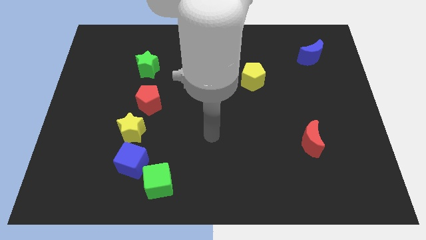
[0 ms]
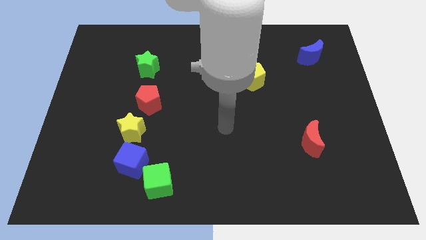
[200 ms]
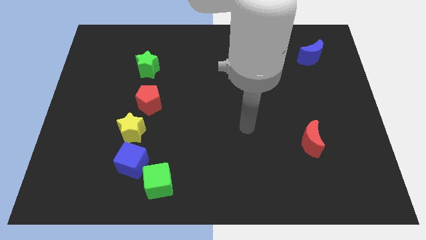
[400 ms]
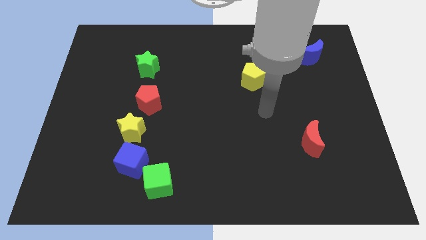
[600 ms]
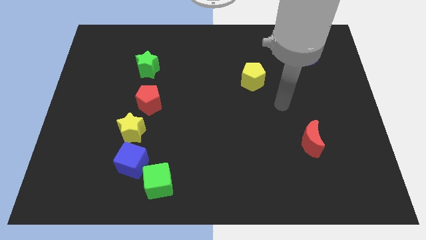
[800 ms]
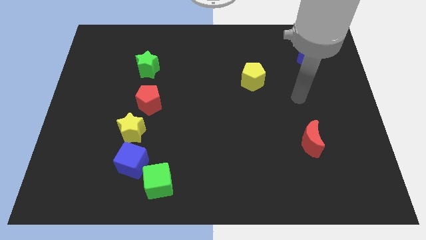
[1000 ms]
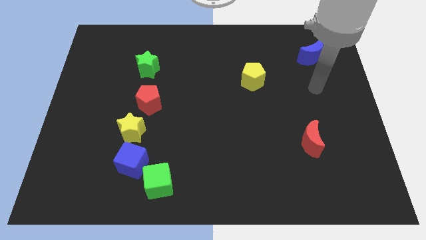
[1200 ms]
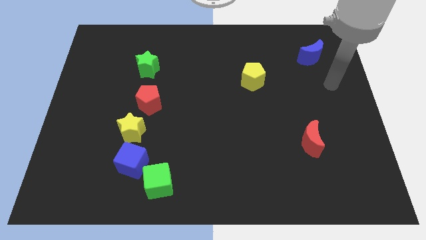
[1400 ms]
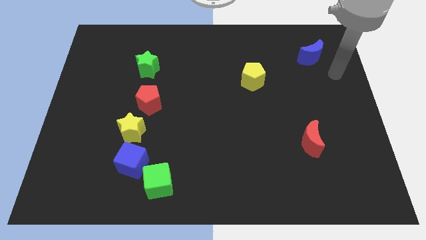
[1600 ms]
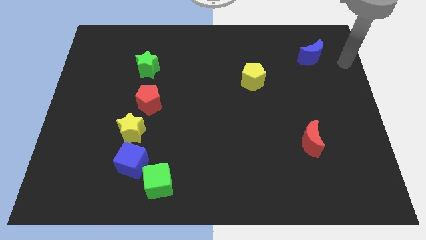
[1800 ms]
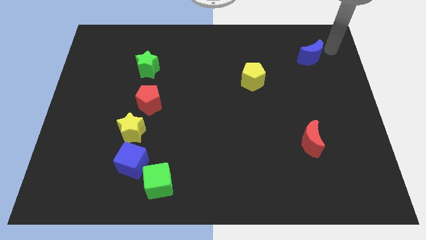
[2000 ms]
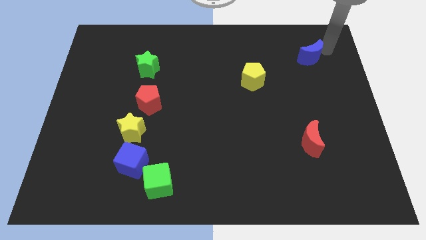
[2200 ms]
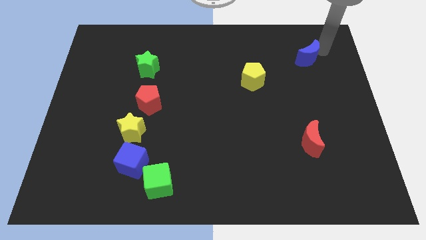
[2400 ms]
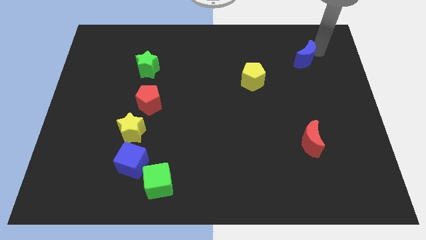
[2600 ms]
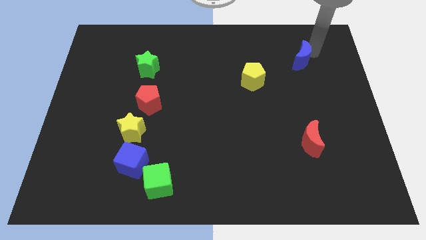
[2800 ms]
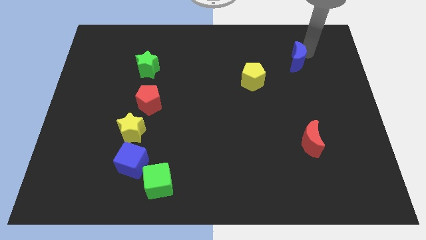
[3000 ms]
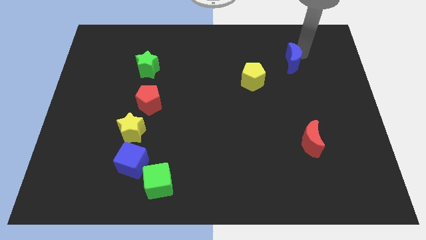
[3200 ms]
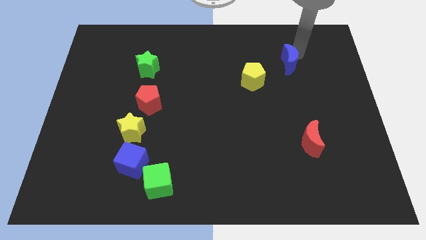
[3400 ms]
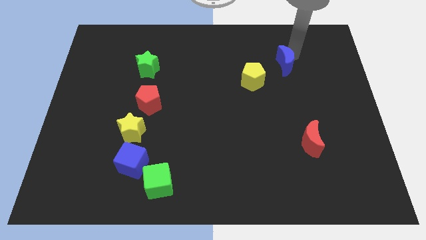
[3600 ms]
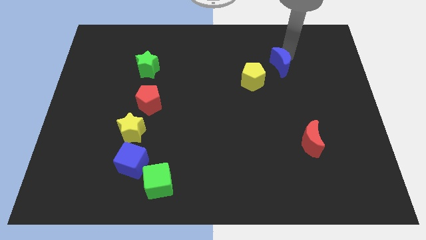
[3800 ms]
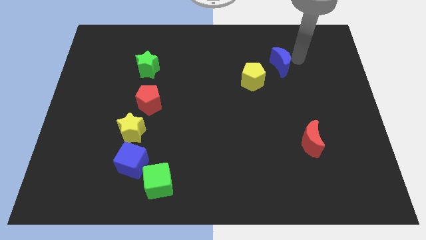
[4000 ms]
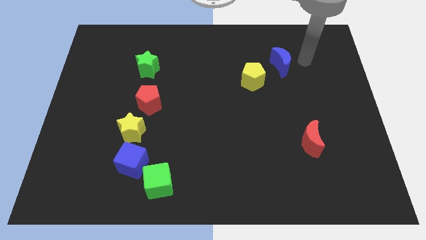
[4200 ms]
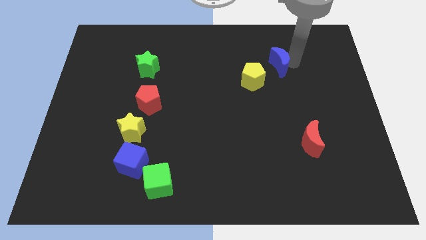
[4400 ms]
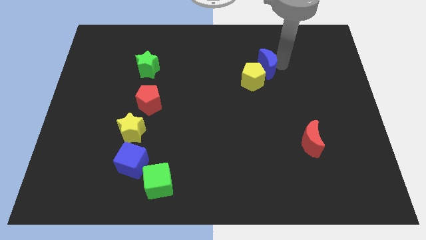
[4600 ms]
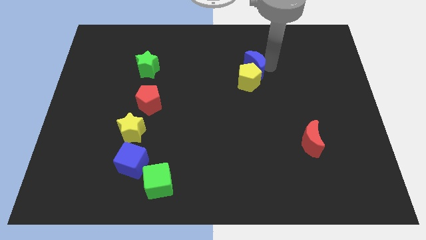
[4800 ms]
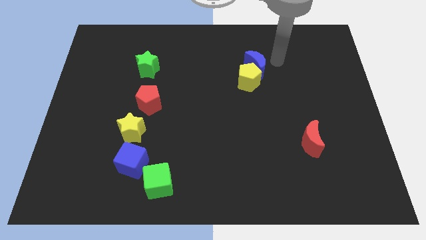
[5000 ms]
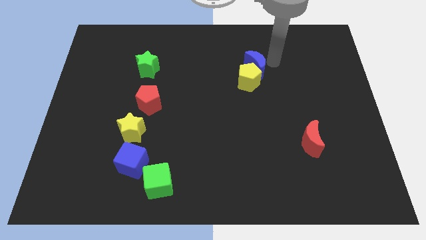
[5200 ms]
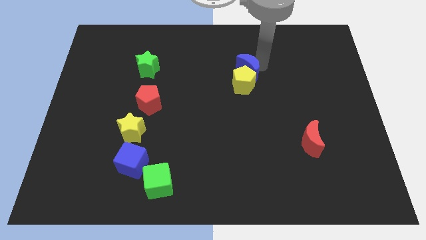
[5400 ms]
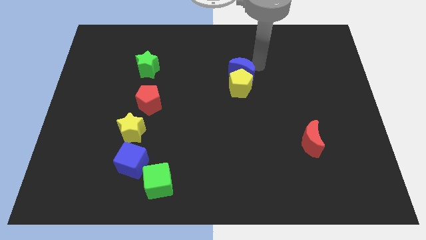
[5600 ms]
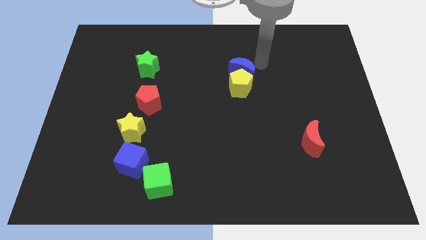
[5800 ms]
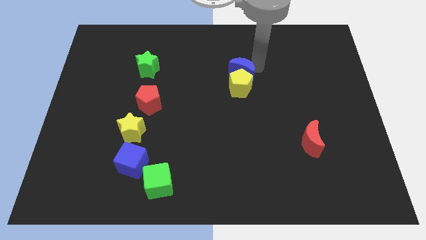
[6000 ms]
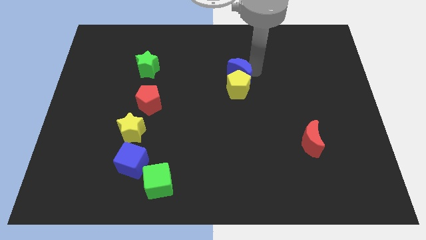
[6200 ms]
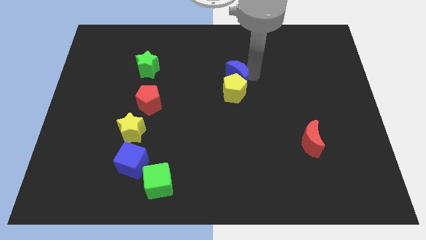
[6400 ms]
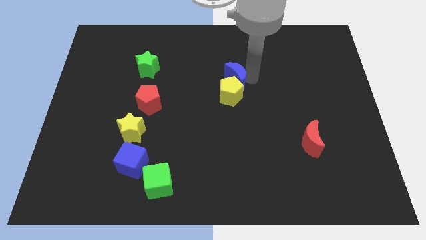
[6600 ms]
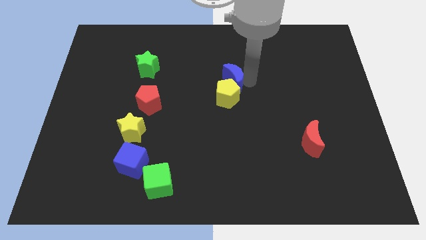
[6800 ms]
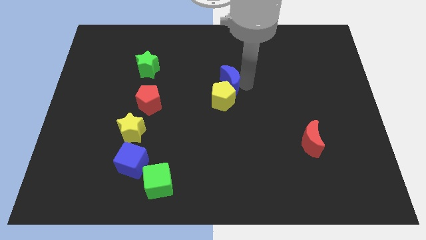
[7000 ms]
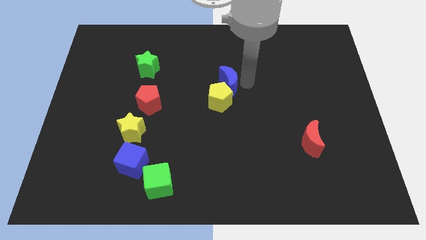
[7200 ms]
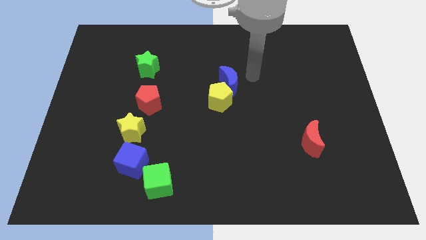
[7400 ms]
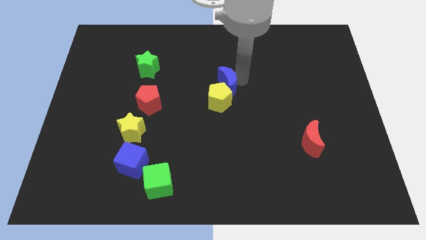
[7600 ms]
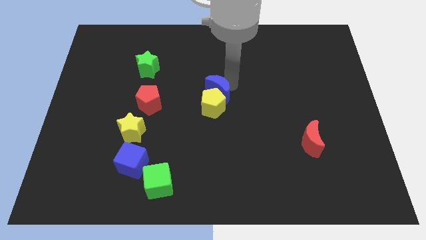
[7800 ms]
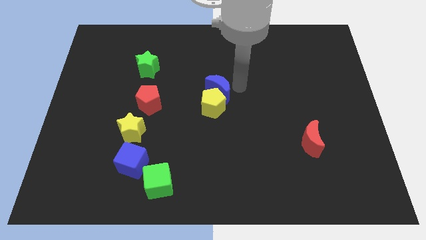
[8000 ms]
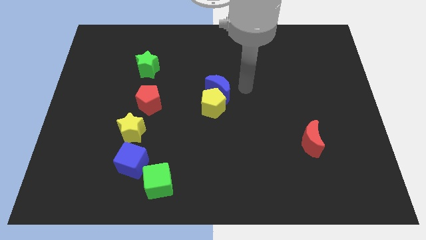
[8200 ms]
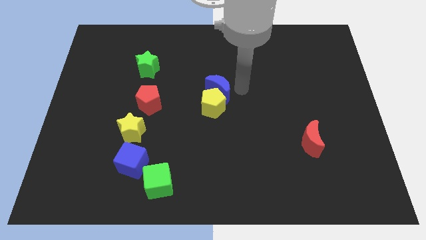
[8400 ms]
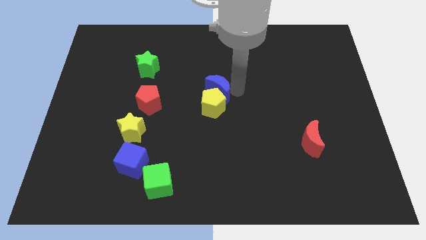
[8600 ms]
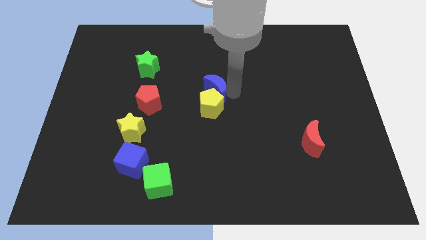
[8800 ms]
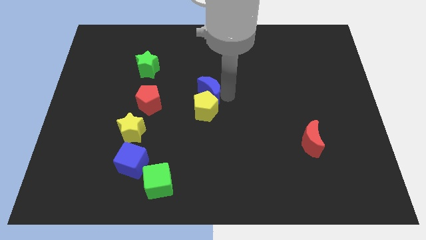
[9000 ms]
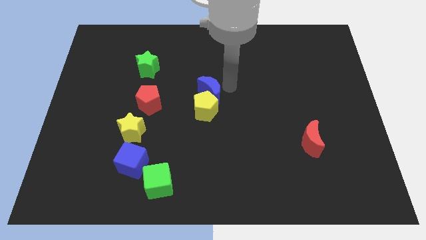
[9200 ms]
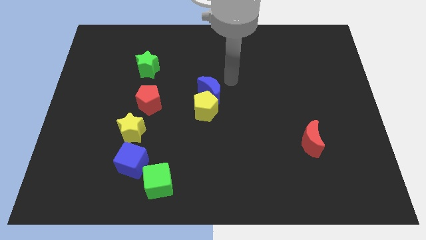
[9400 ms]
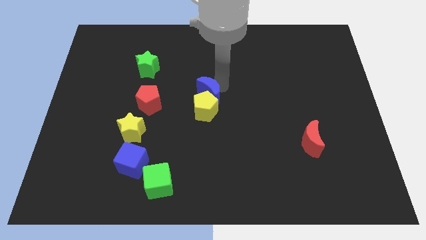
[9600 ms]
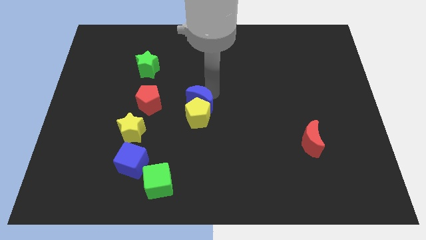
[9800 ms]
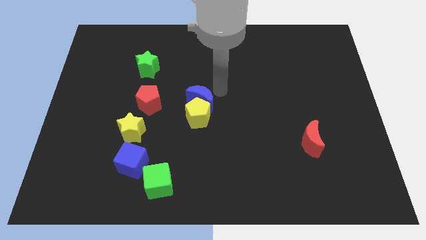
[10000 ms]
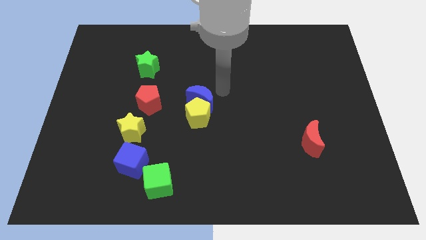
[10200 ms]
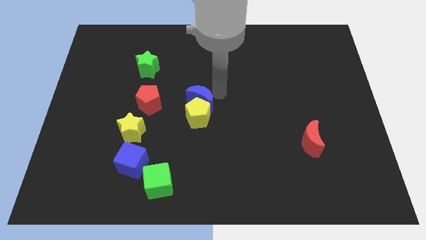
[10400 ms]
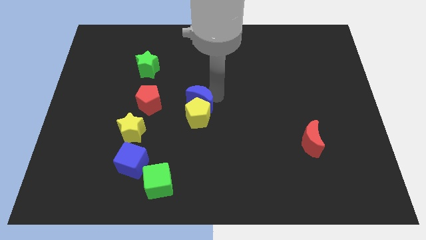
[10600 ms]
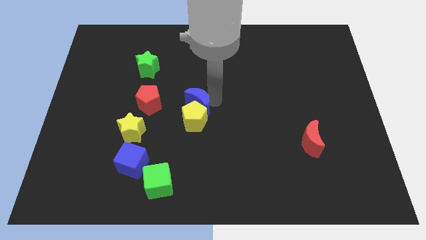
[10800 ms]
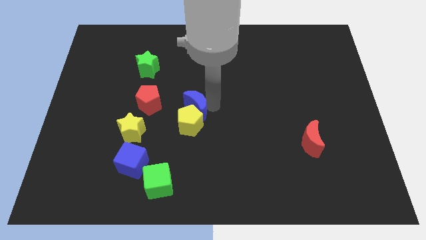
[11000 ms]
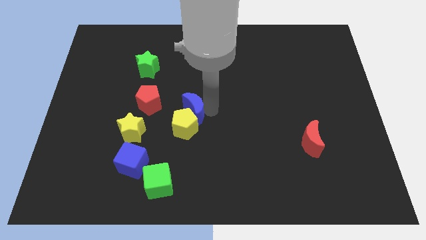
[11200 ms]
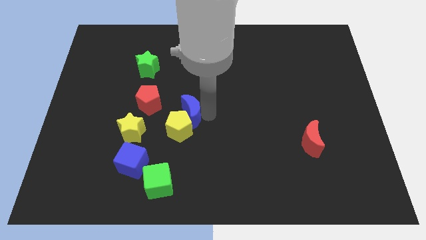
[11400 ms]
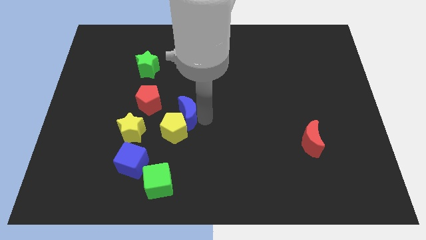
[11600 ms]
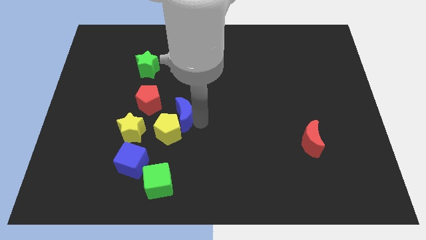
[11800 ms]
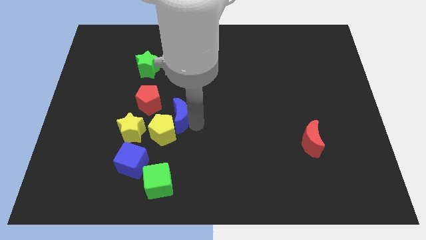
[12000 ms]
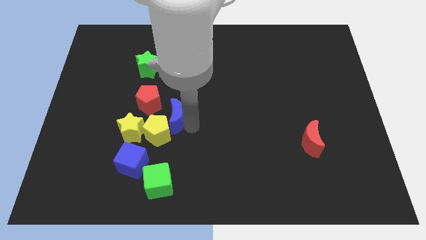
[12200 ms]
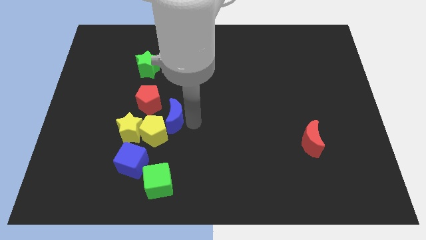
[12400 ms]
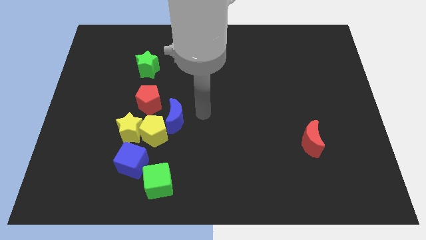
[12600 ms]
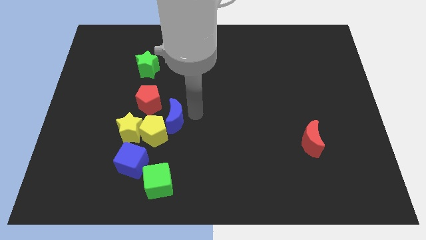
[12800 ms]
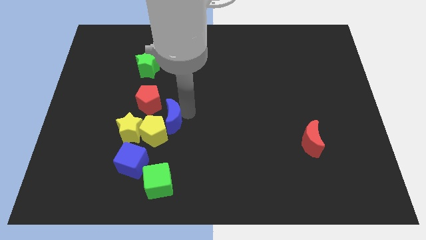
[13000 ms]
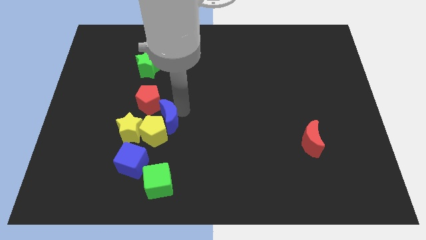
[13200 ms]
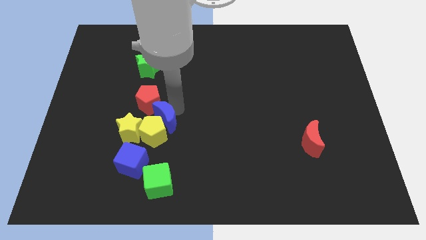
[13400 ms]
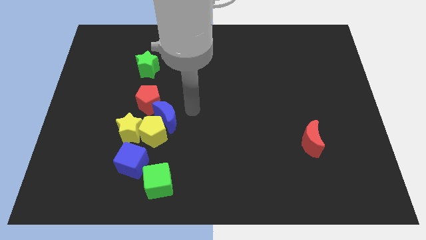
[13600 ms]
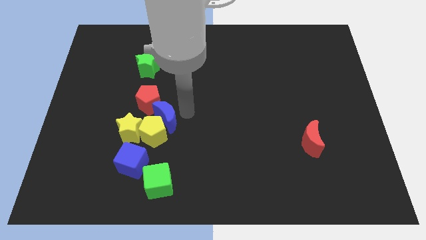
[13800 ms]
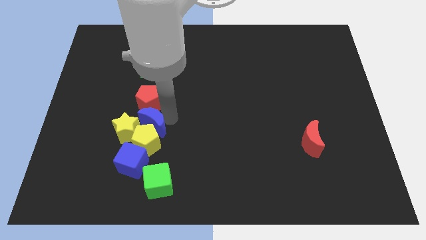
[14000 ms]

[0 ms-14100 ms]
push the blue moon to the yellow star
